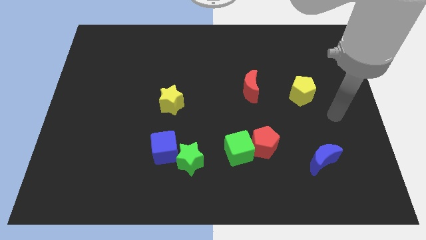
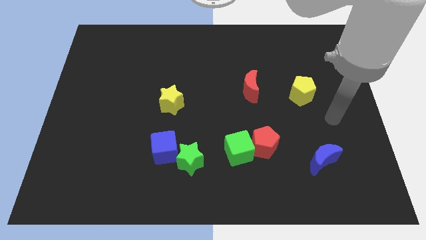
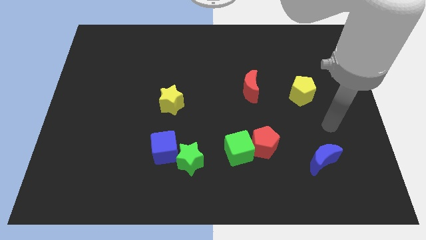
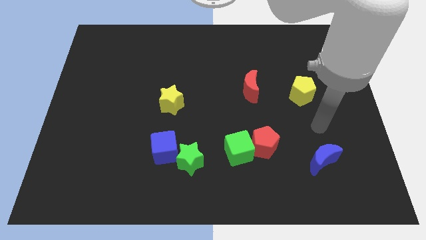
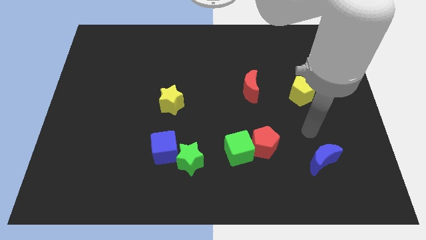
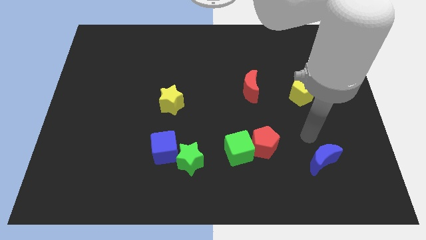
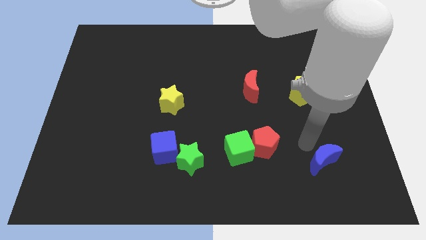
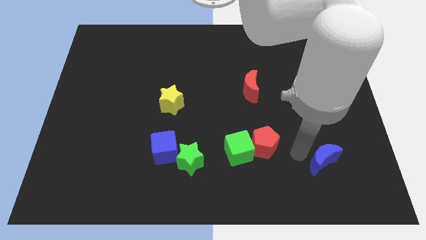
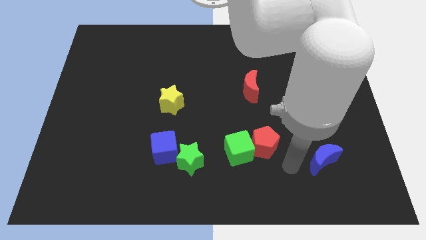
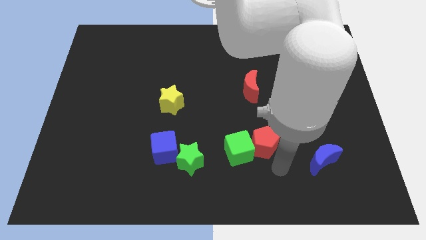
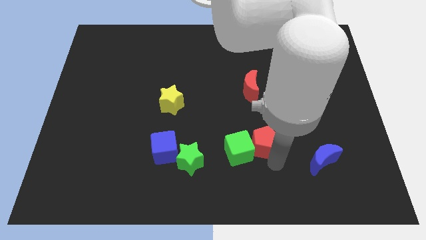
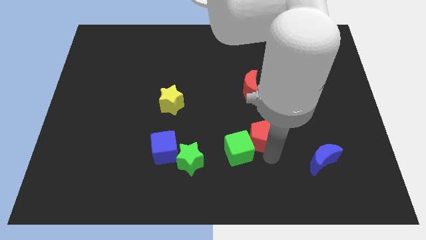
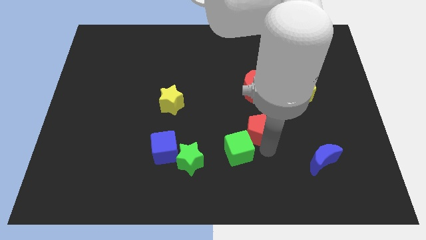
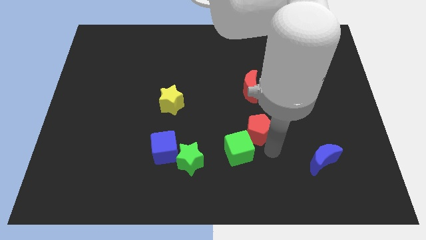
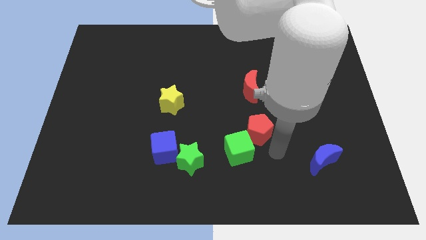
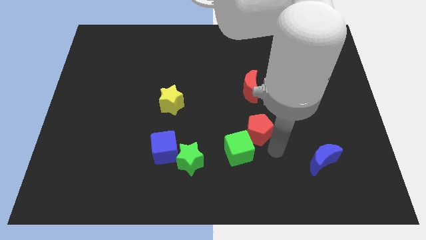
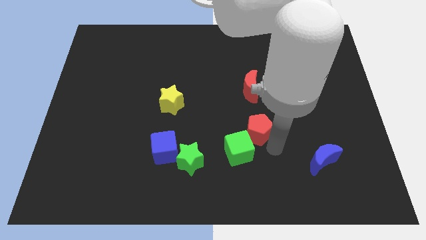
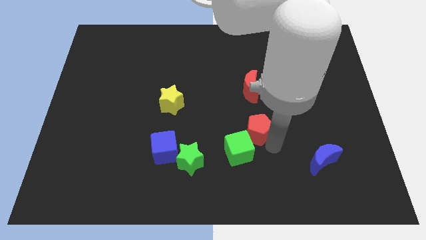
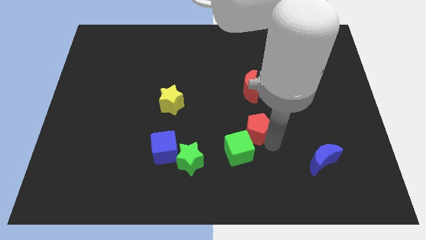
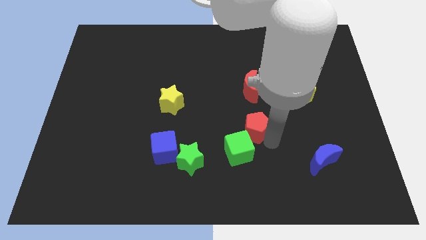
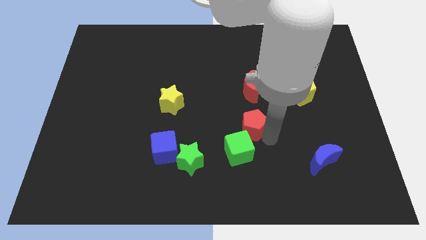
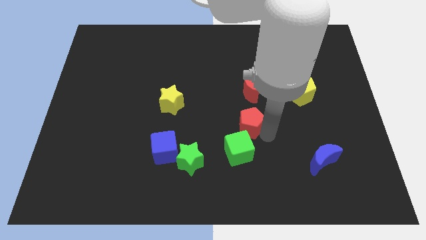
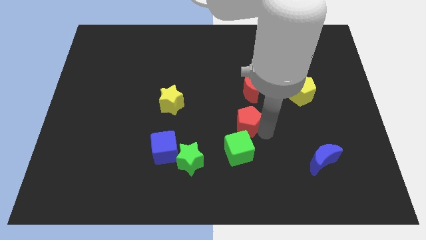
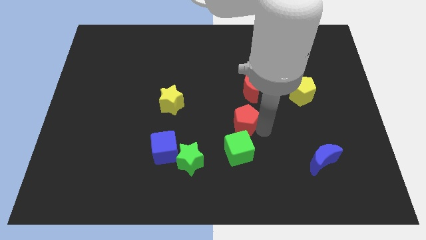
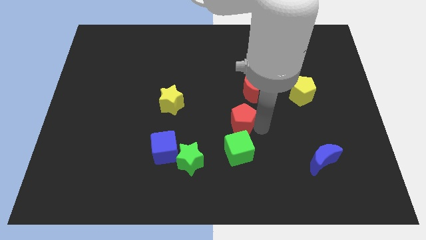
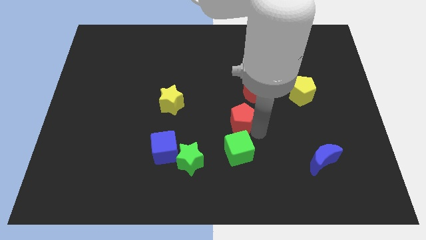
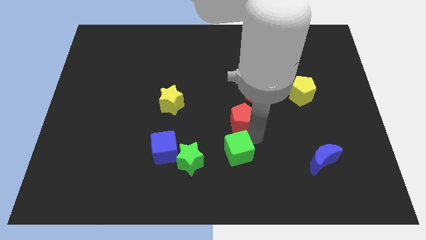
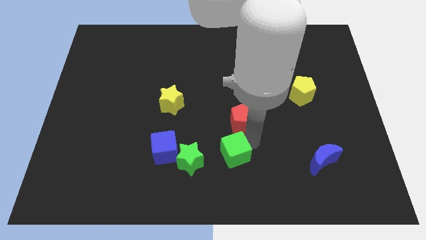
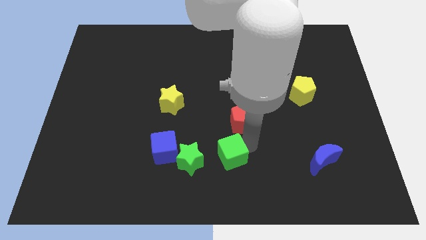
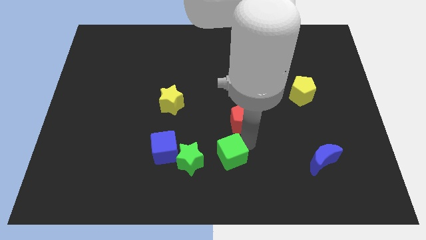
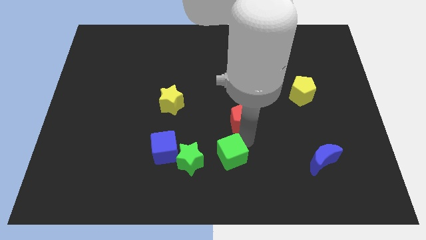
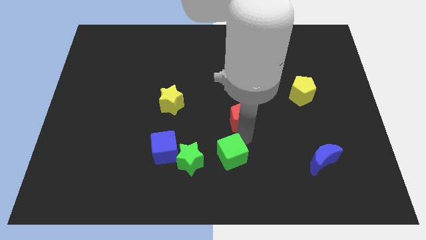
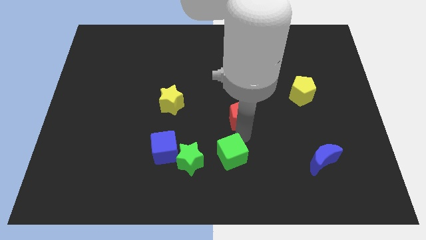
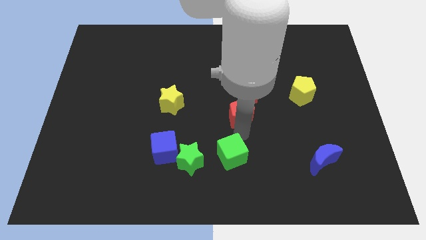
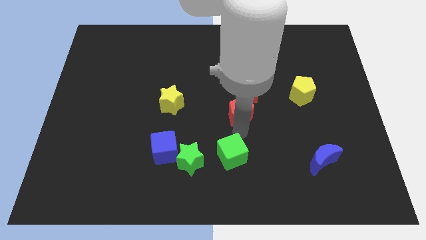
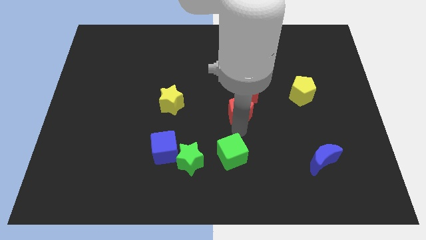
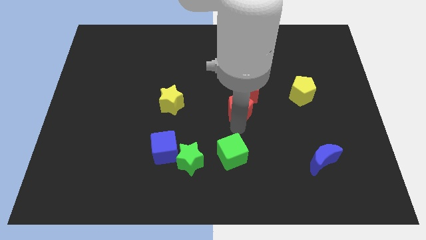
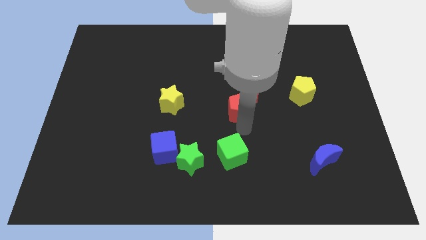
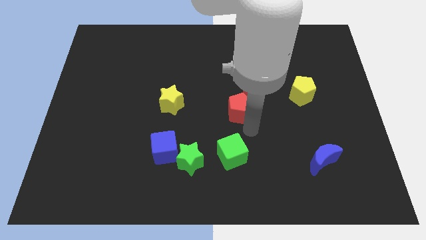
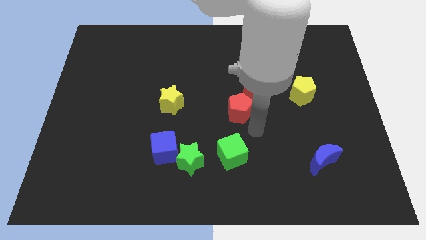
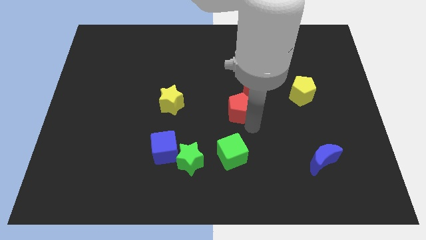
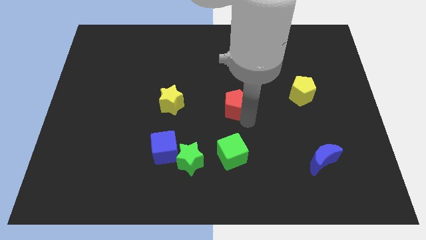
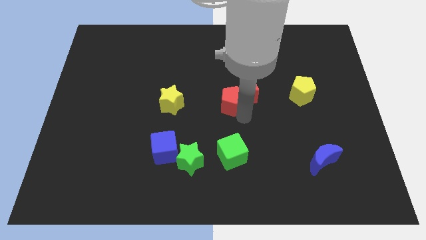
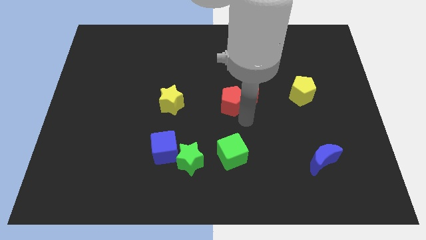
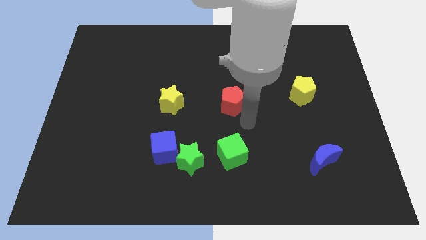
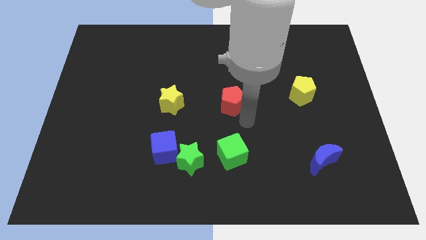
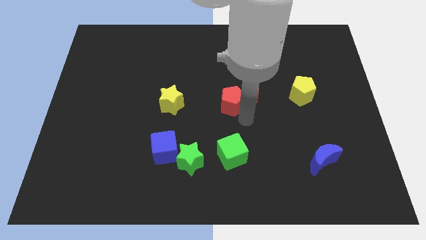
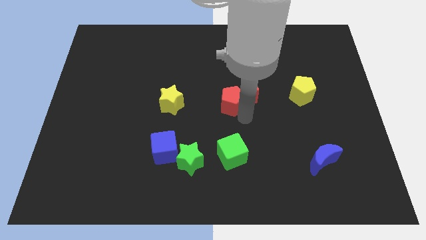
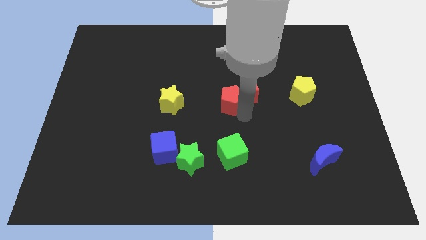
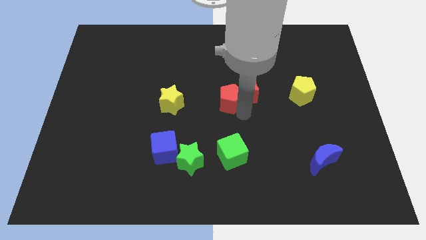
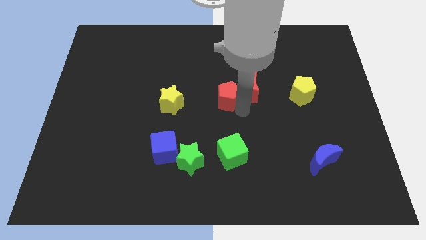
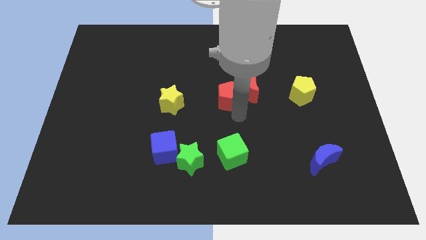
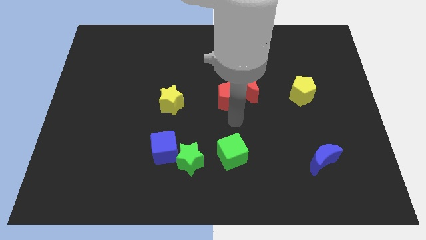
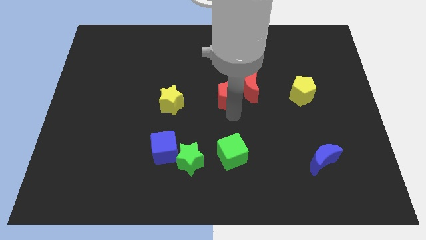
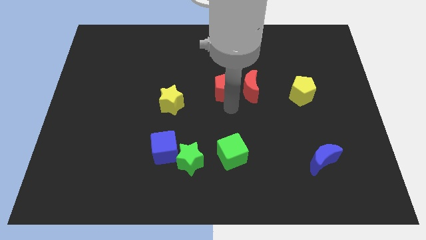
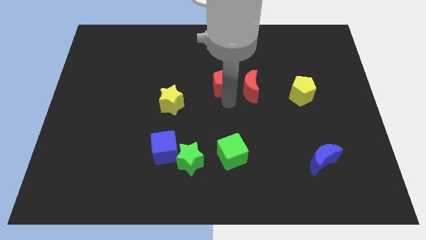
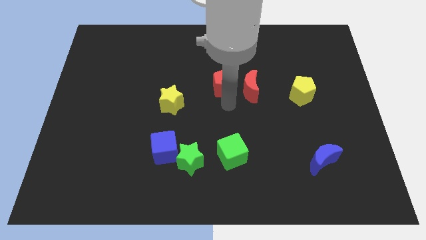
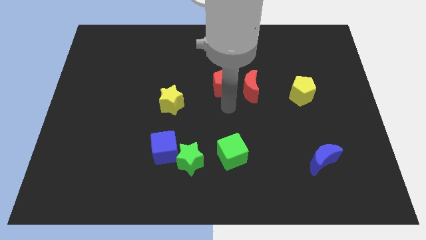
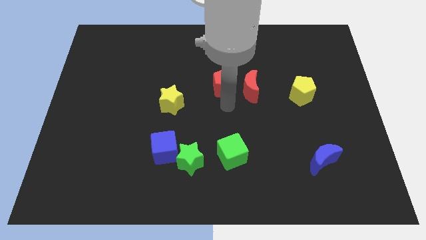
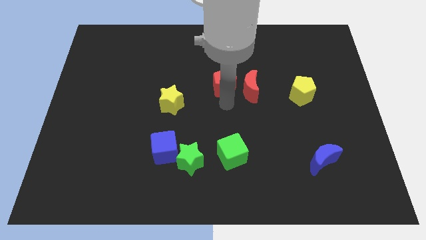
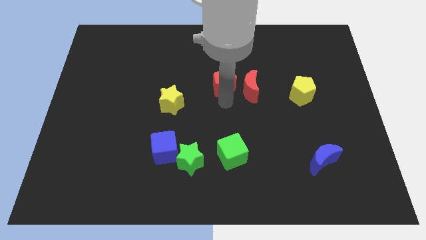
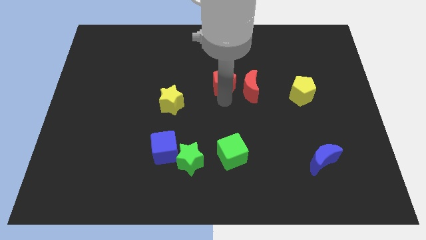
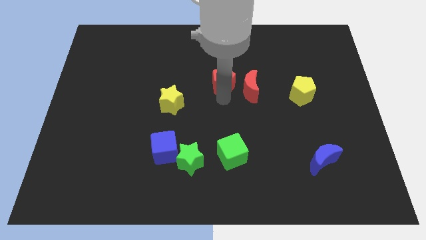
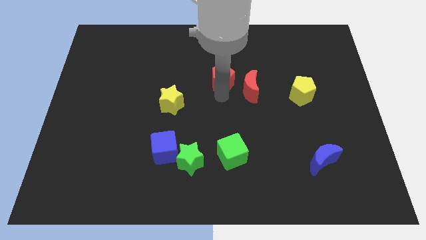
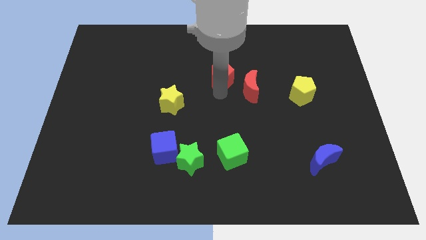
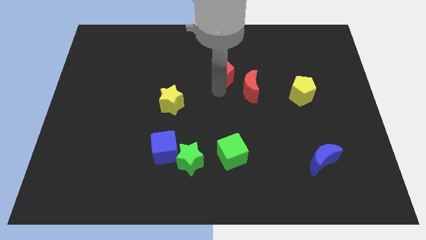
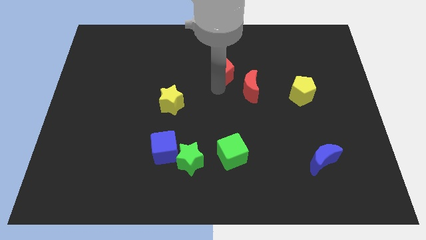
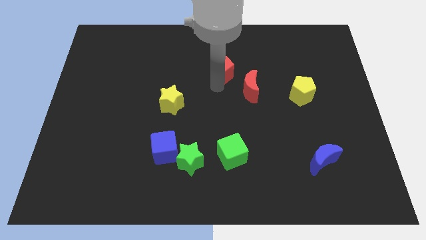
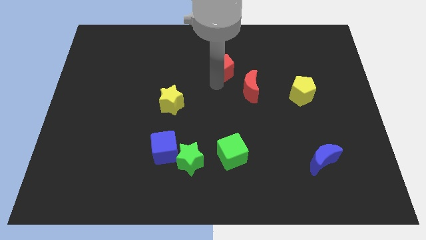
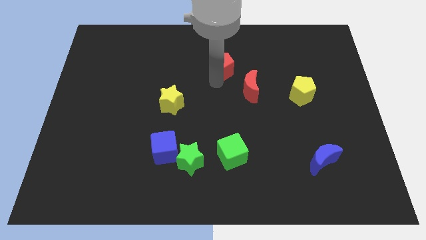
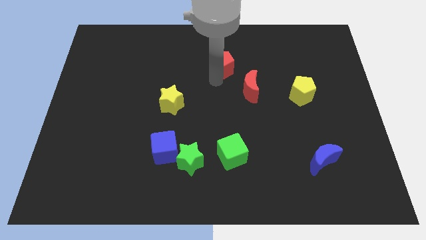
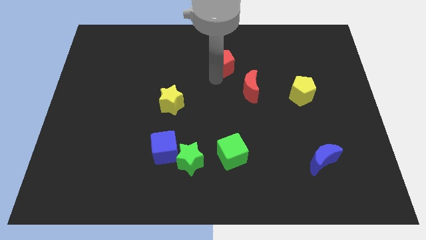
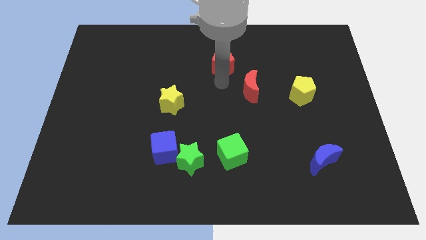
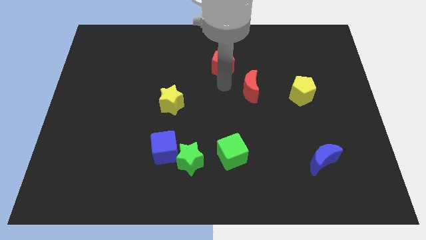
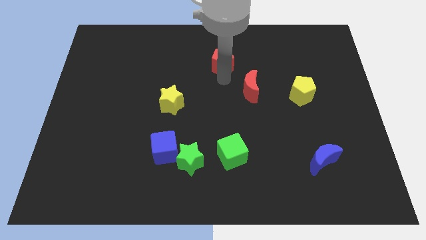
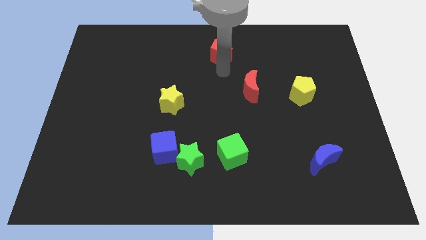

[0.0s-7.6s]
put the red pentagon to the top
